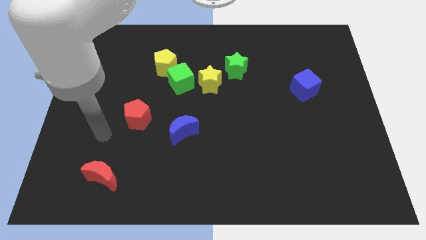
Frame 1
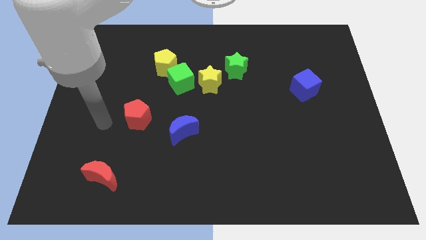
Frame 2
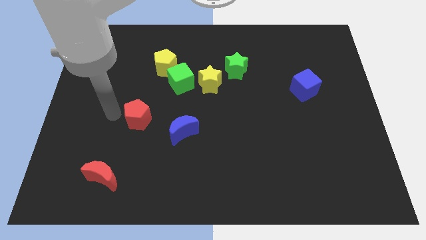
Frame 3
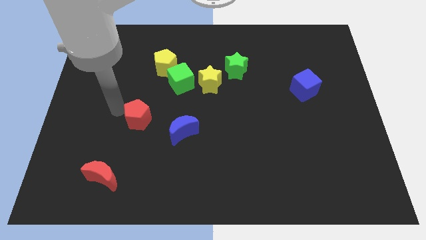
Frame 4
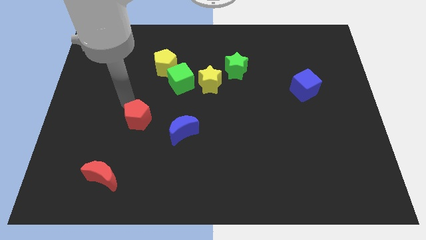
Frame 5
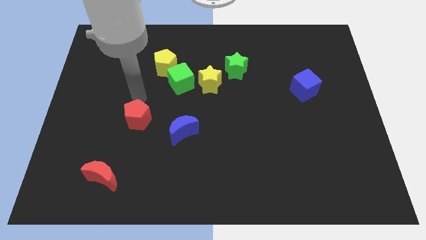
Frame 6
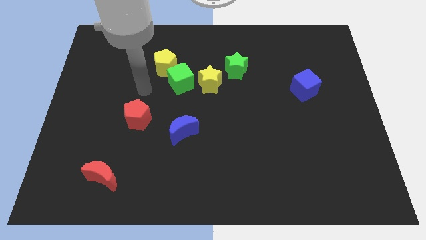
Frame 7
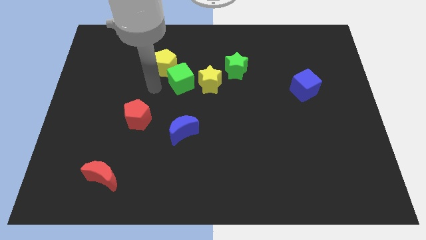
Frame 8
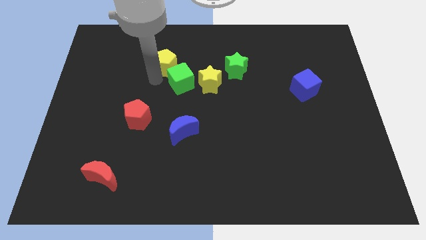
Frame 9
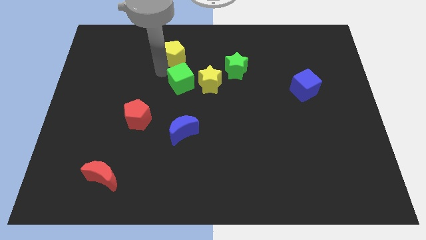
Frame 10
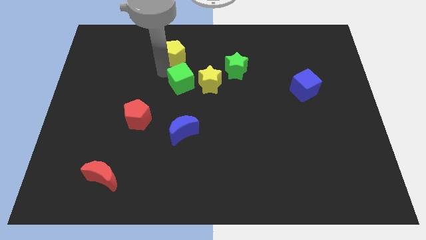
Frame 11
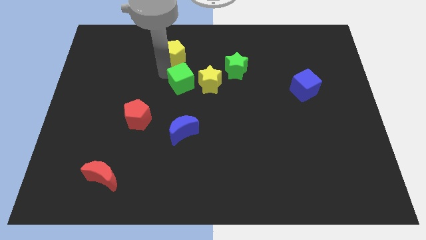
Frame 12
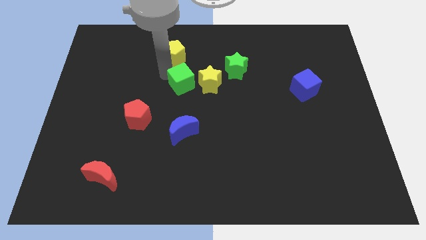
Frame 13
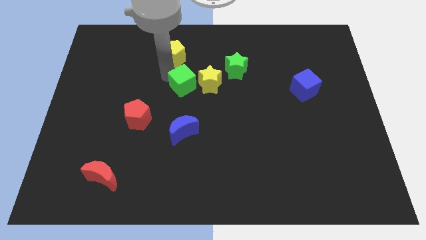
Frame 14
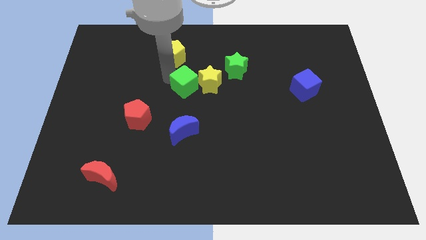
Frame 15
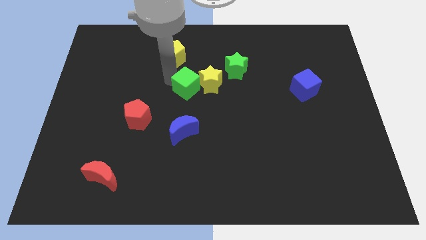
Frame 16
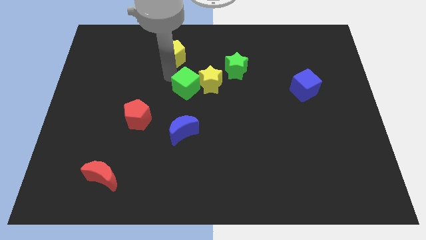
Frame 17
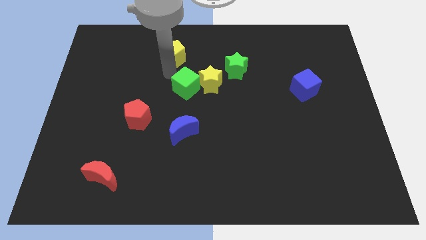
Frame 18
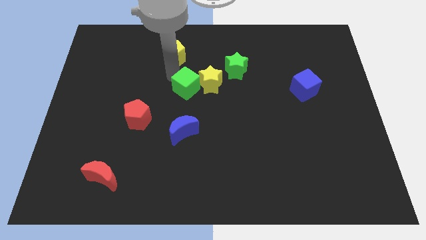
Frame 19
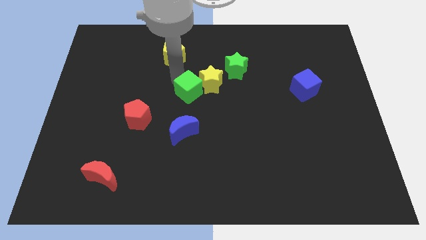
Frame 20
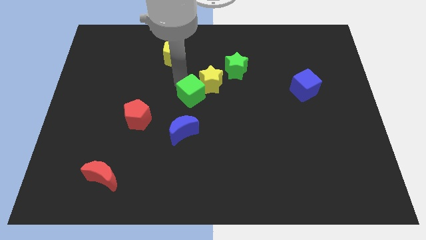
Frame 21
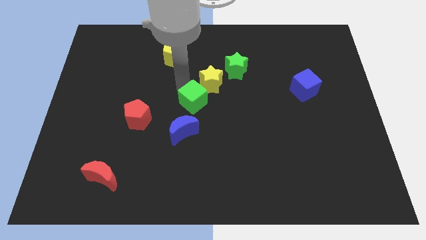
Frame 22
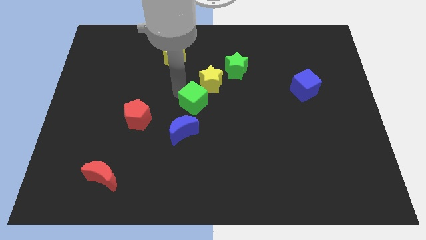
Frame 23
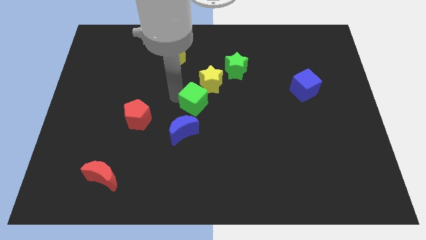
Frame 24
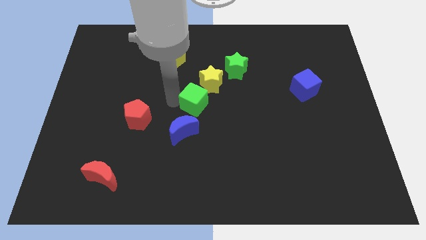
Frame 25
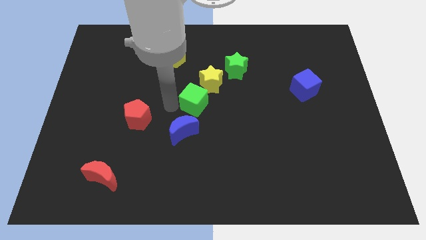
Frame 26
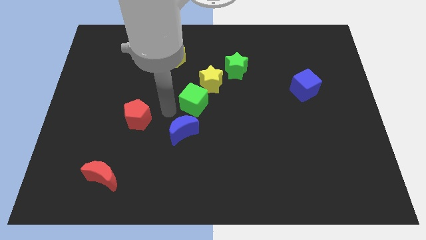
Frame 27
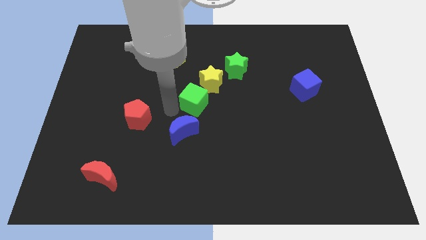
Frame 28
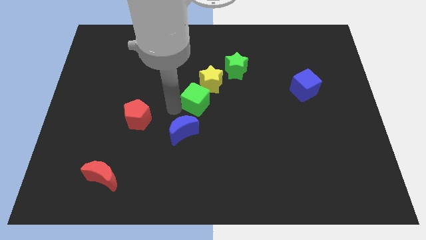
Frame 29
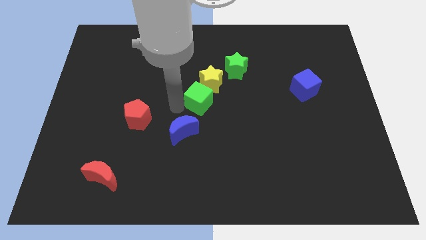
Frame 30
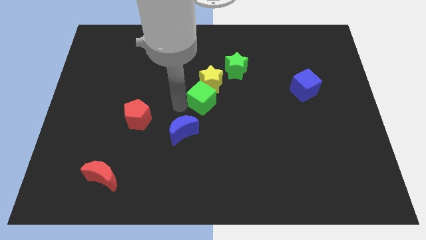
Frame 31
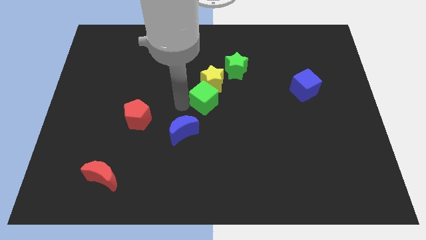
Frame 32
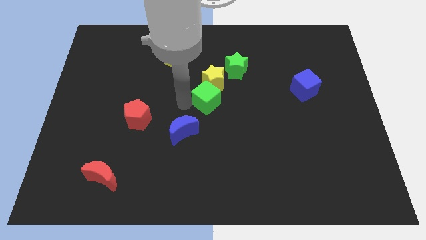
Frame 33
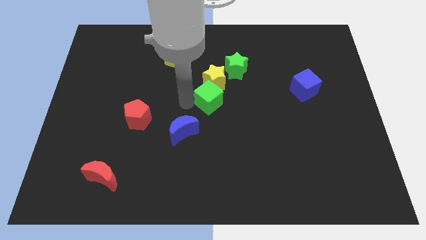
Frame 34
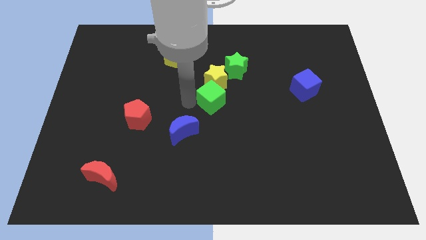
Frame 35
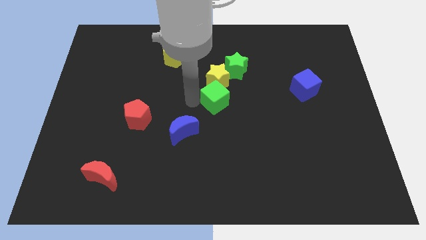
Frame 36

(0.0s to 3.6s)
move the green cube to the right somewhat

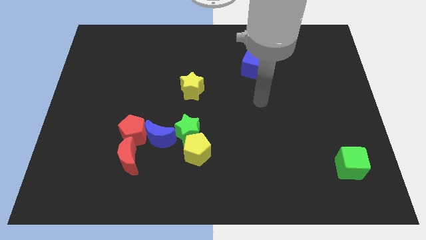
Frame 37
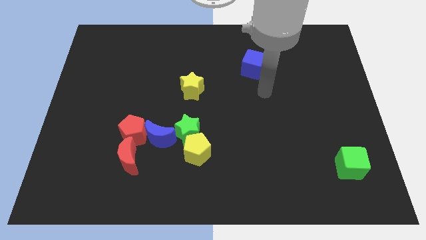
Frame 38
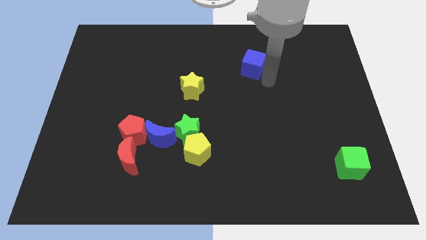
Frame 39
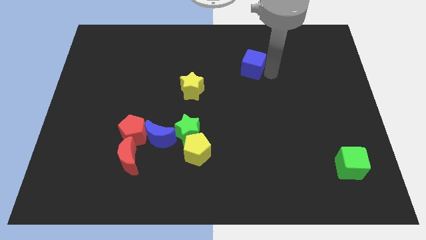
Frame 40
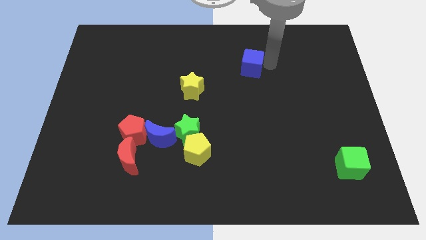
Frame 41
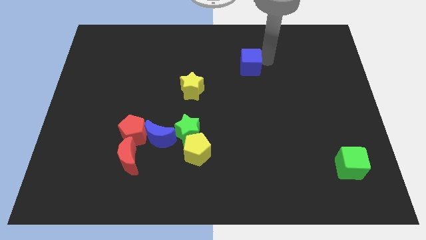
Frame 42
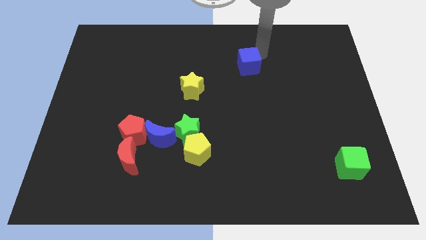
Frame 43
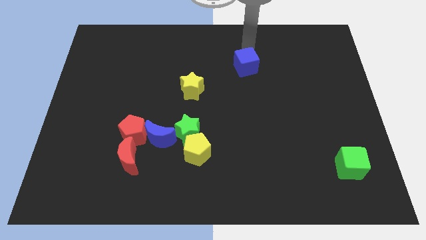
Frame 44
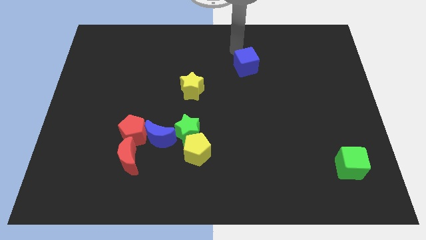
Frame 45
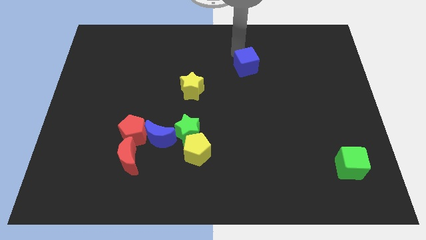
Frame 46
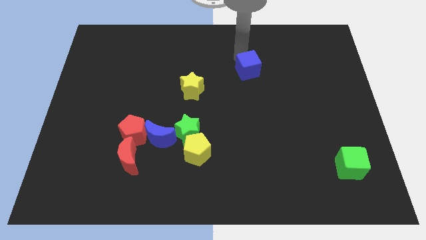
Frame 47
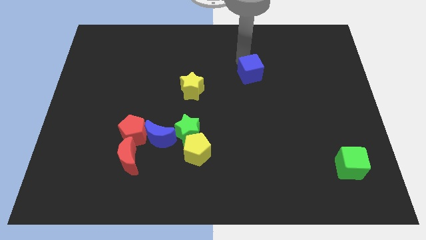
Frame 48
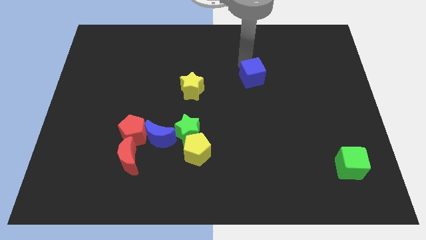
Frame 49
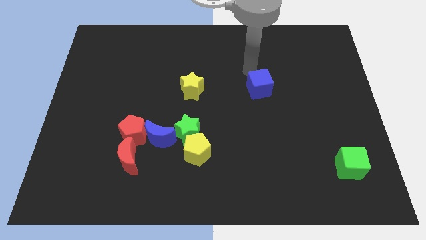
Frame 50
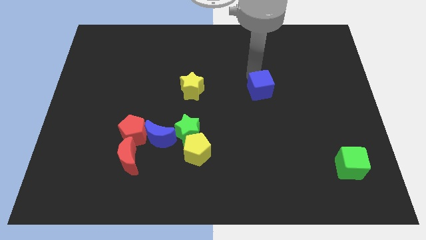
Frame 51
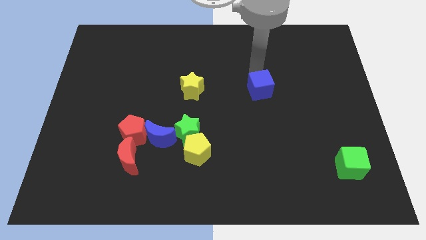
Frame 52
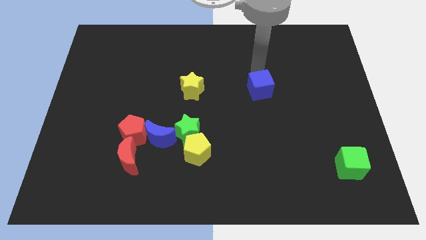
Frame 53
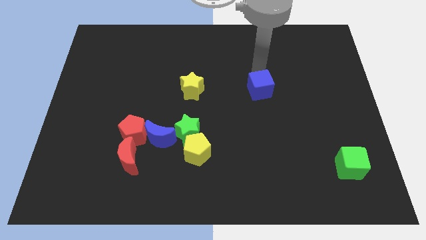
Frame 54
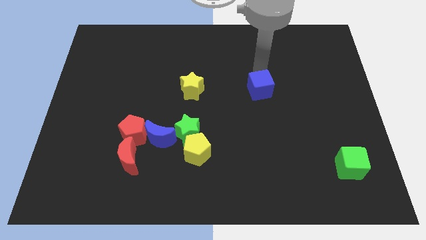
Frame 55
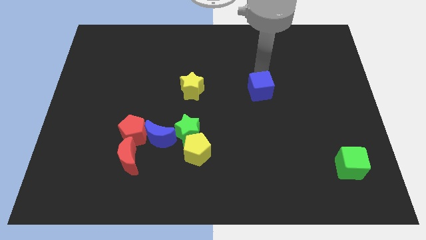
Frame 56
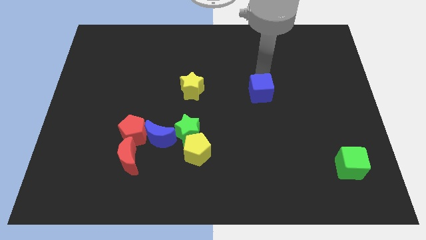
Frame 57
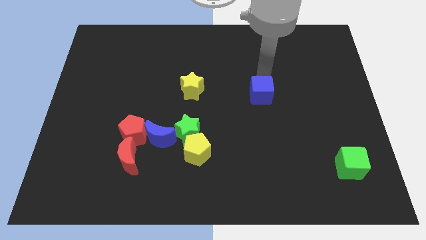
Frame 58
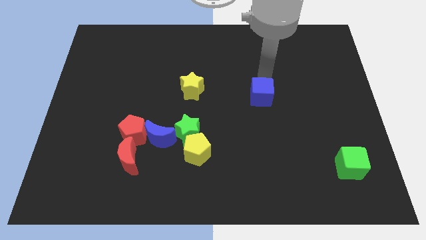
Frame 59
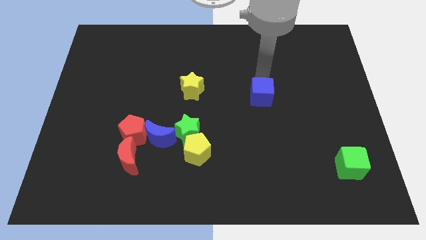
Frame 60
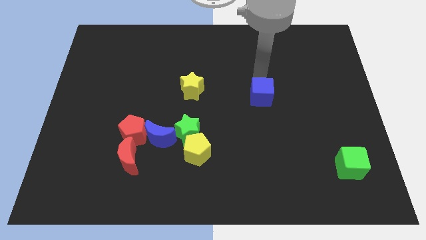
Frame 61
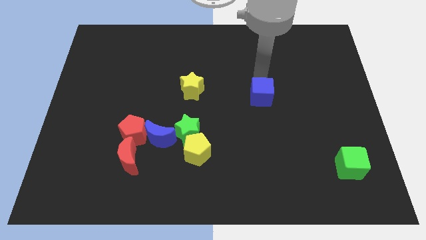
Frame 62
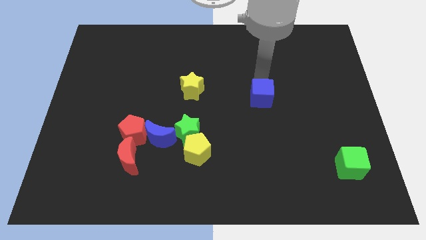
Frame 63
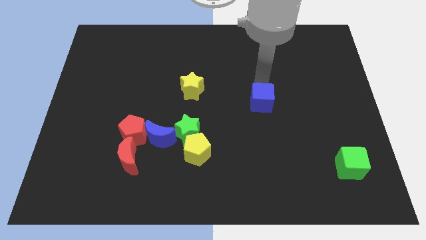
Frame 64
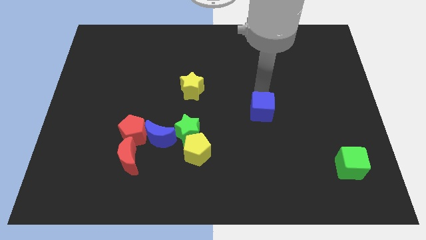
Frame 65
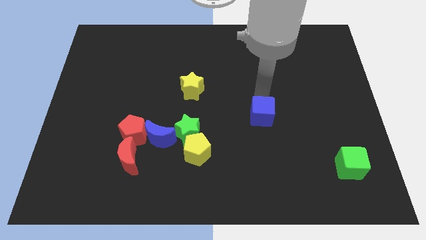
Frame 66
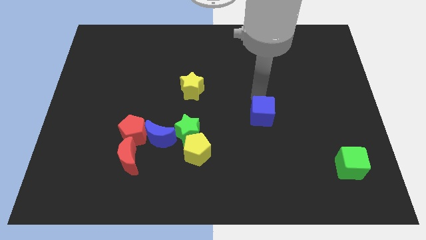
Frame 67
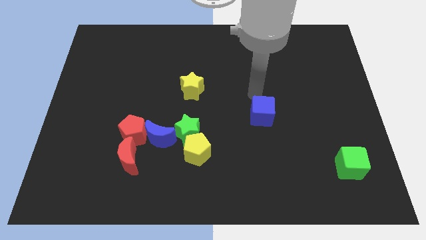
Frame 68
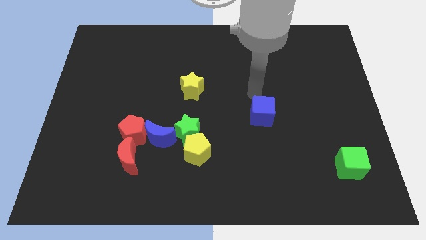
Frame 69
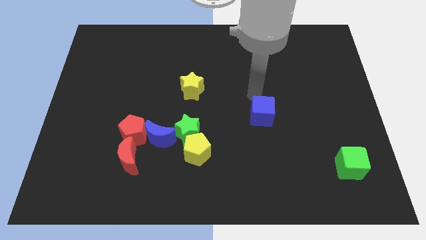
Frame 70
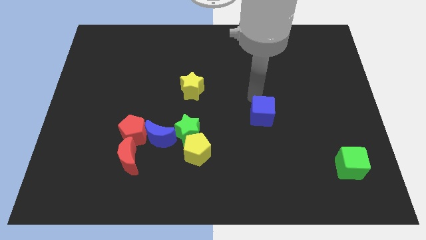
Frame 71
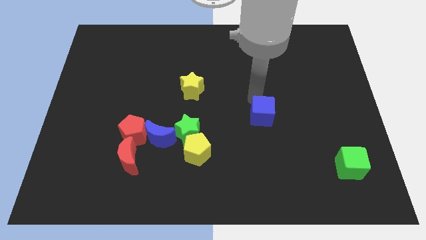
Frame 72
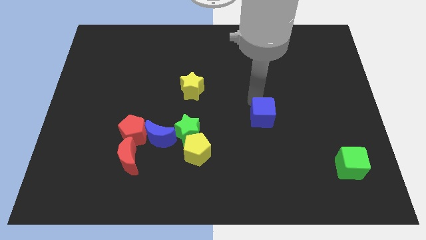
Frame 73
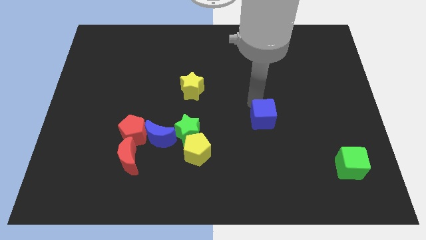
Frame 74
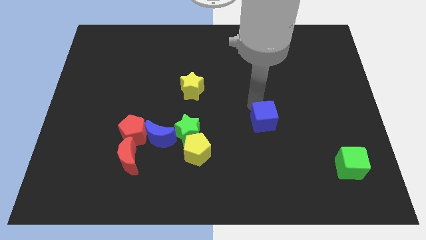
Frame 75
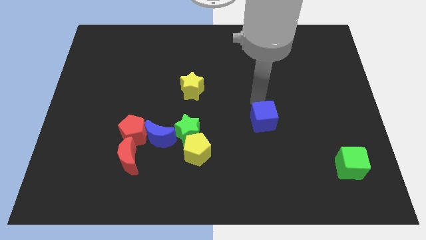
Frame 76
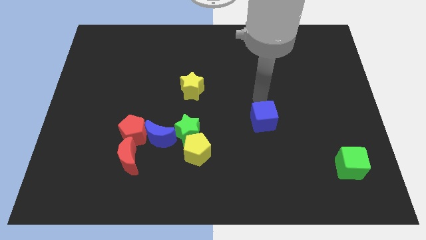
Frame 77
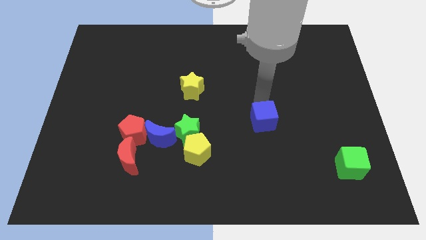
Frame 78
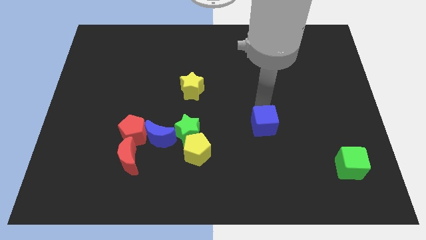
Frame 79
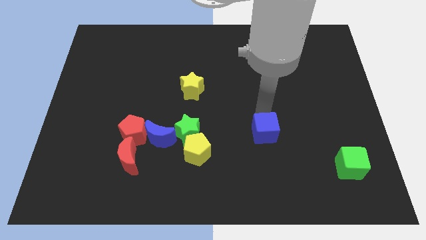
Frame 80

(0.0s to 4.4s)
push the blue cube down

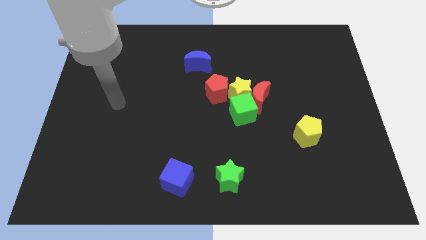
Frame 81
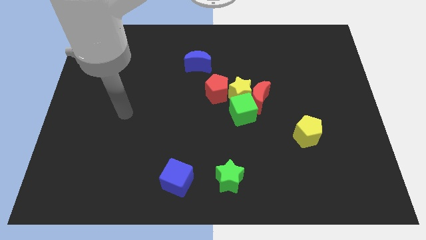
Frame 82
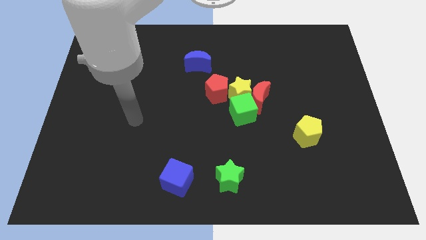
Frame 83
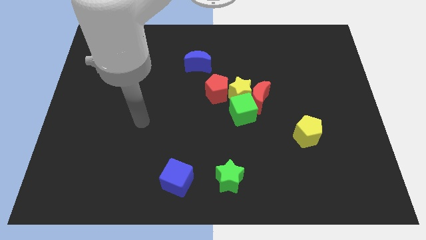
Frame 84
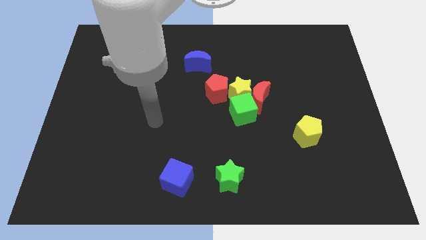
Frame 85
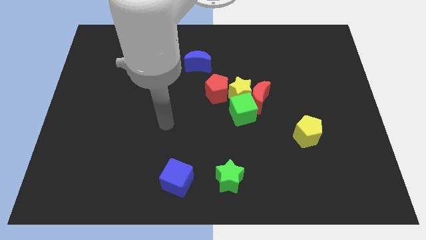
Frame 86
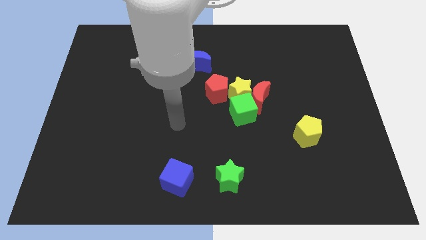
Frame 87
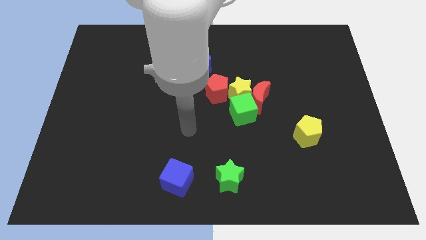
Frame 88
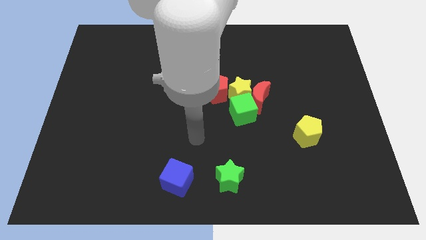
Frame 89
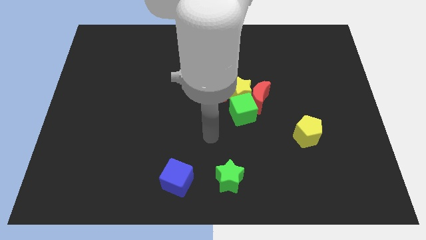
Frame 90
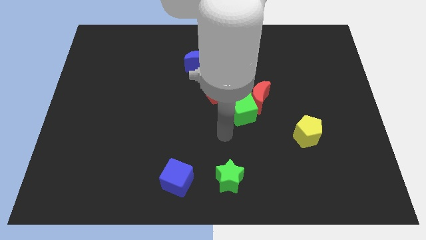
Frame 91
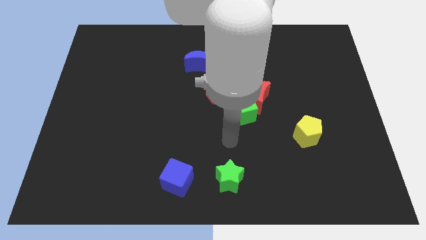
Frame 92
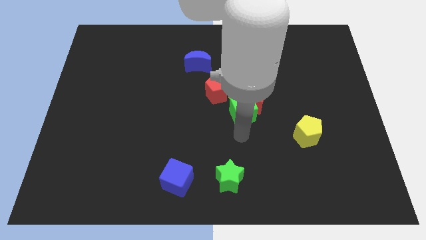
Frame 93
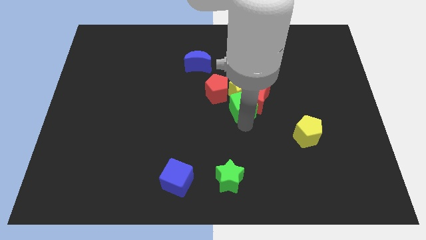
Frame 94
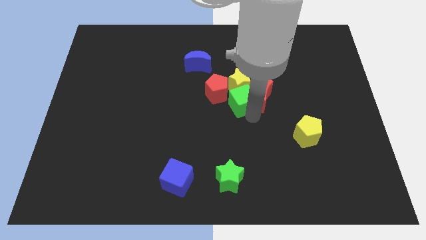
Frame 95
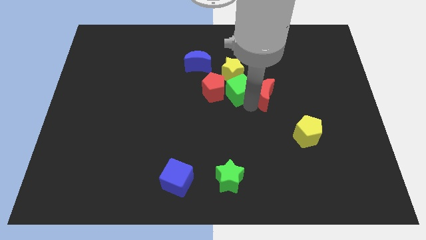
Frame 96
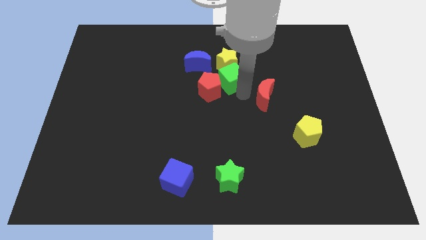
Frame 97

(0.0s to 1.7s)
slightly slide the yellow star upwards and left
